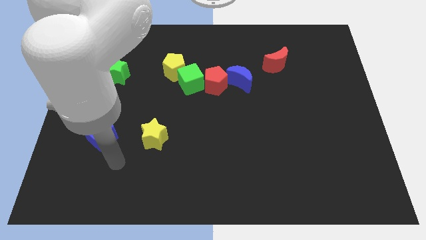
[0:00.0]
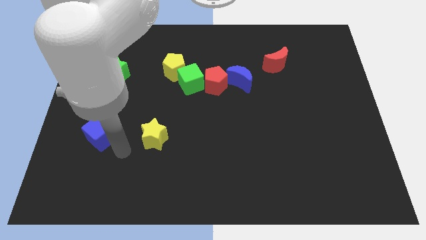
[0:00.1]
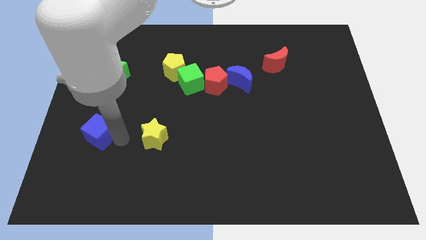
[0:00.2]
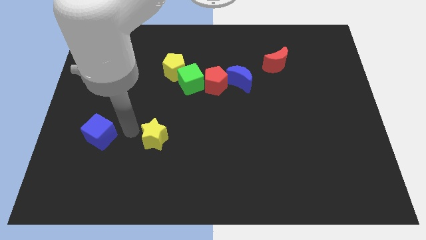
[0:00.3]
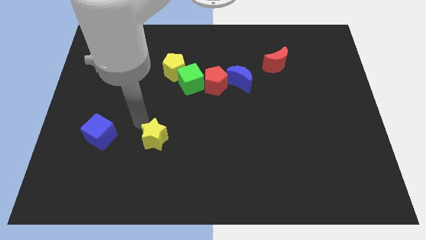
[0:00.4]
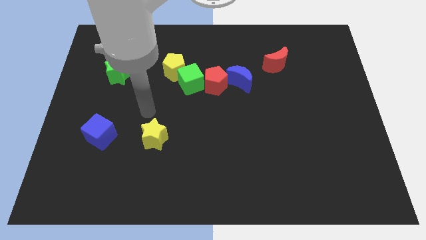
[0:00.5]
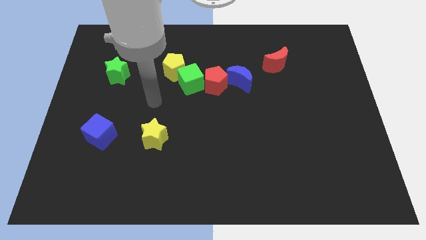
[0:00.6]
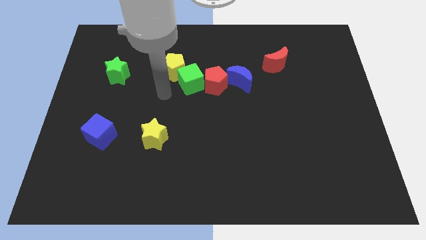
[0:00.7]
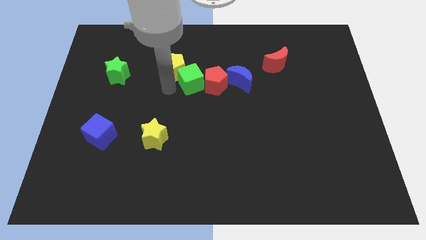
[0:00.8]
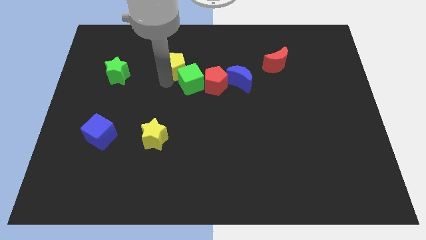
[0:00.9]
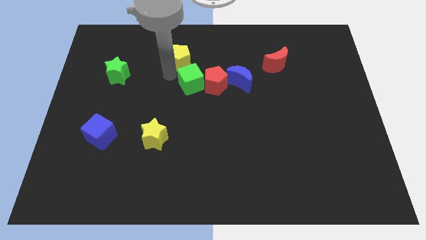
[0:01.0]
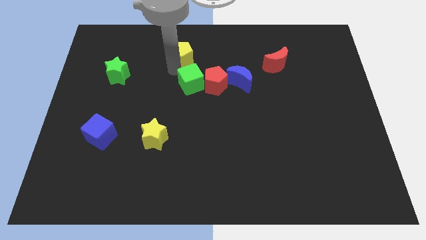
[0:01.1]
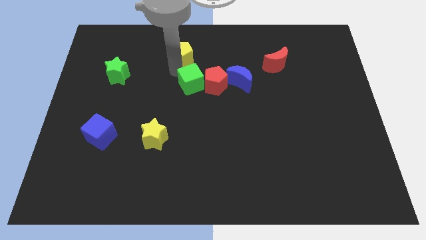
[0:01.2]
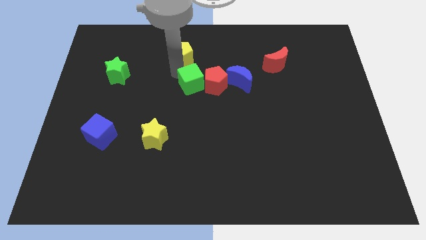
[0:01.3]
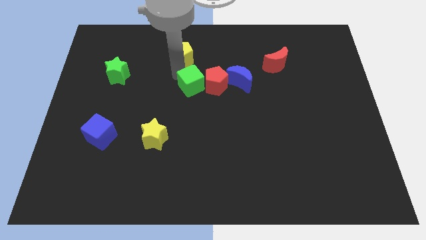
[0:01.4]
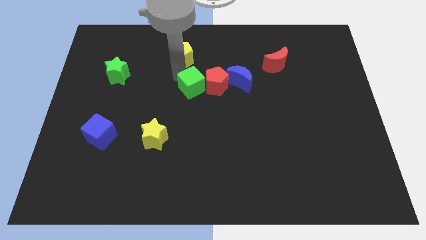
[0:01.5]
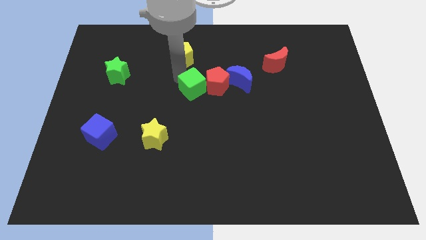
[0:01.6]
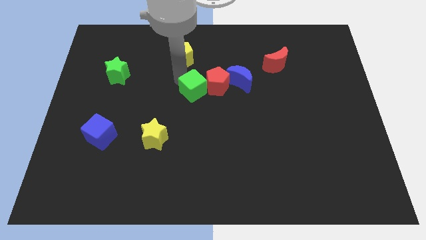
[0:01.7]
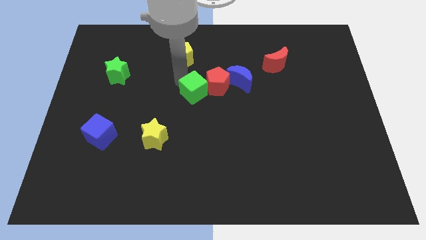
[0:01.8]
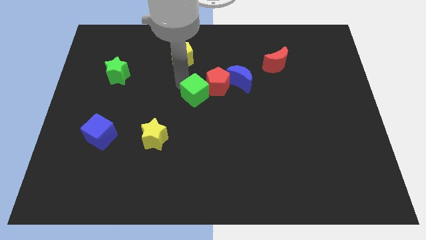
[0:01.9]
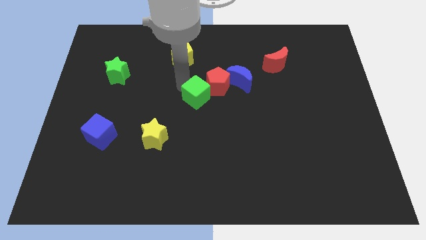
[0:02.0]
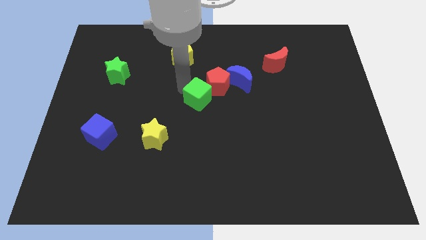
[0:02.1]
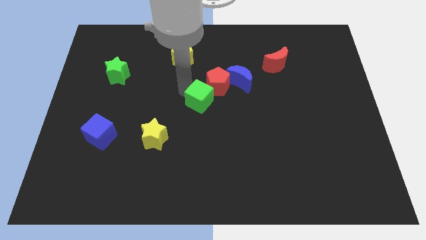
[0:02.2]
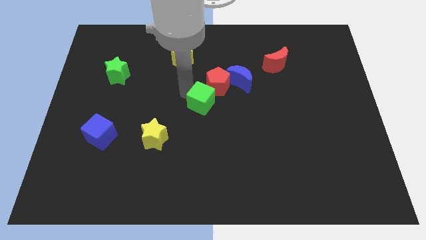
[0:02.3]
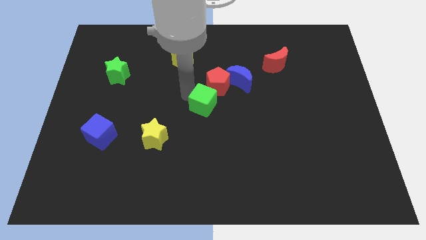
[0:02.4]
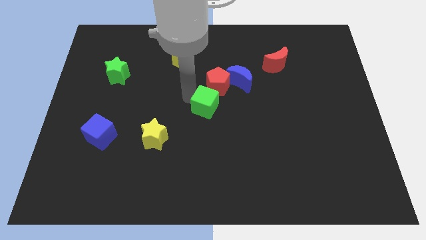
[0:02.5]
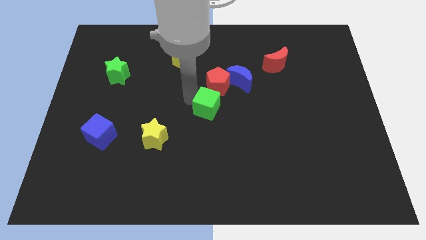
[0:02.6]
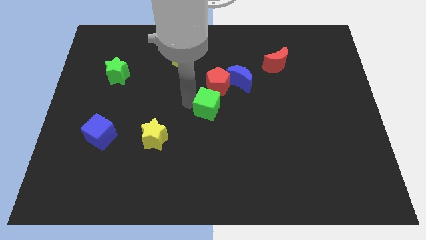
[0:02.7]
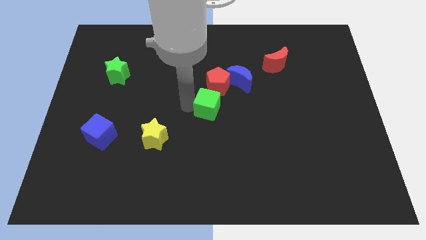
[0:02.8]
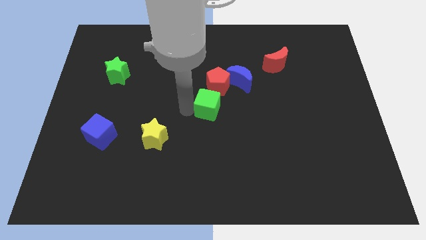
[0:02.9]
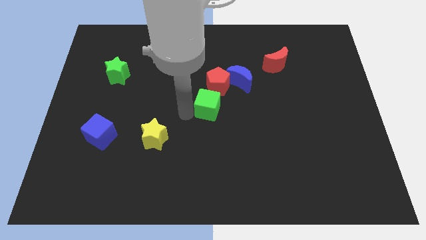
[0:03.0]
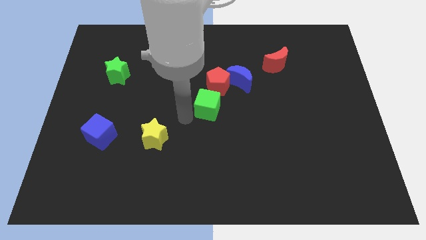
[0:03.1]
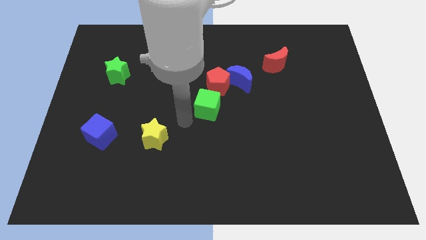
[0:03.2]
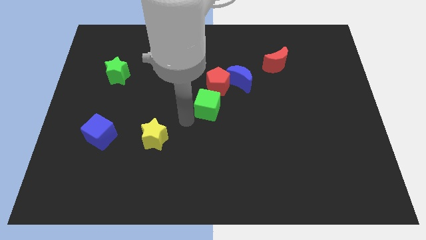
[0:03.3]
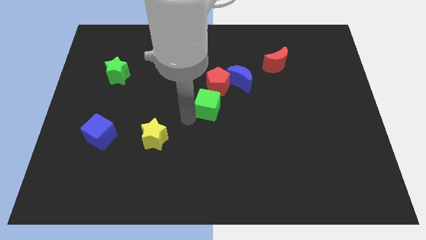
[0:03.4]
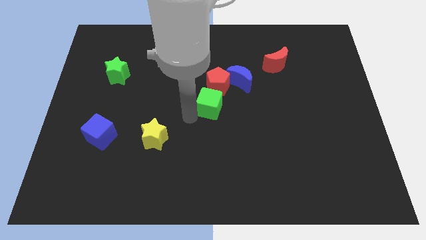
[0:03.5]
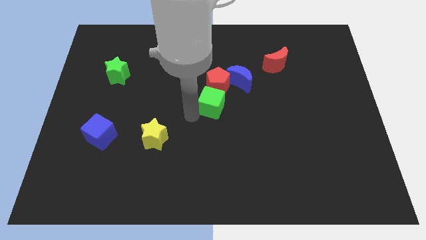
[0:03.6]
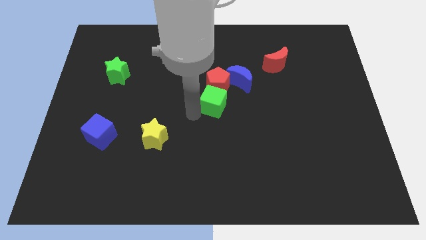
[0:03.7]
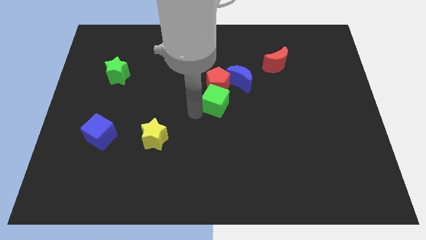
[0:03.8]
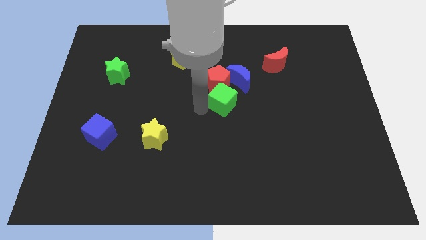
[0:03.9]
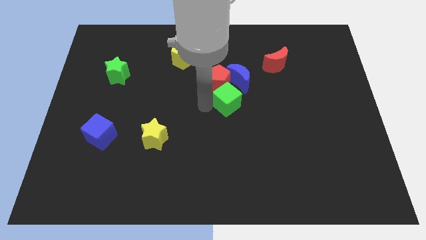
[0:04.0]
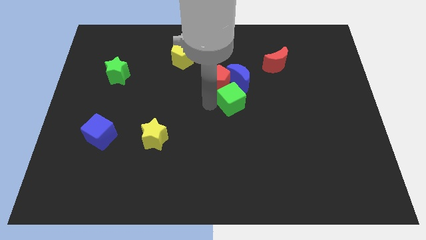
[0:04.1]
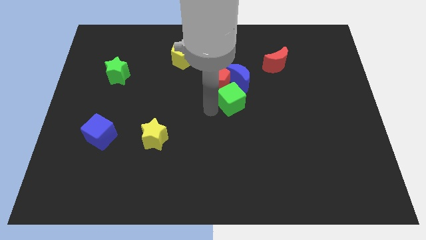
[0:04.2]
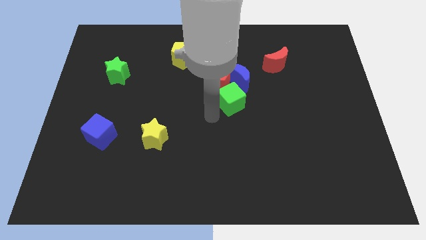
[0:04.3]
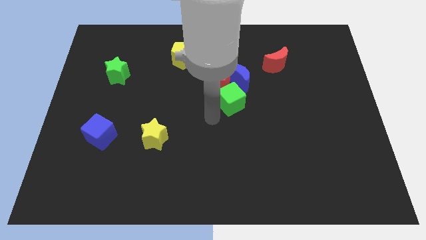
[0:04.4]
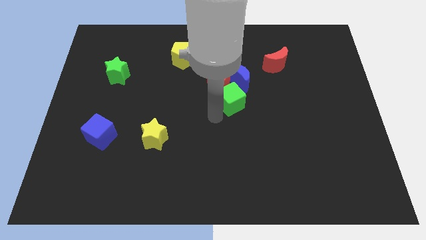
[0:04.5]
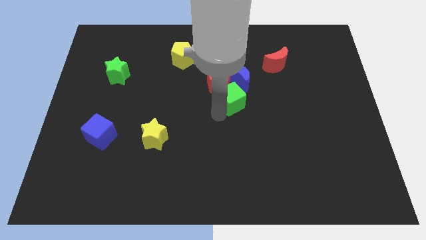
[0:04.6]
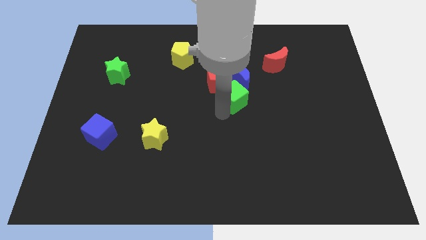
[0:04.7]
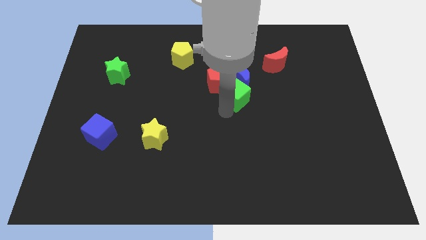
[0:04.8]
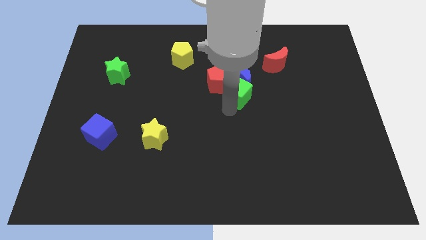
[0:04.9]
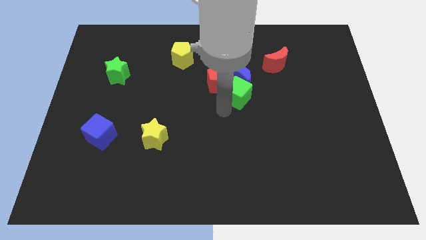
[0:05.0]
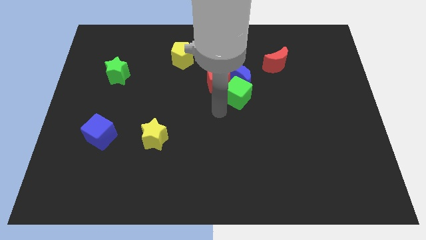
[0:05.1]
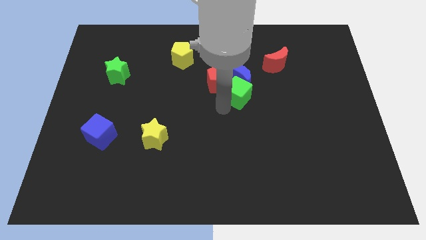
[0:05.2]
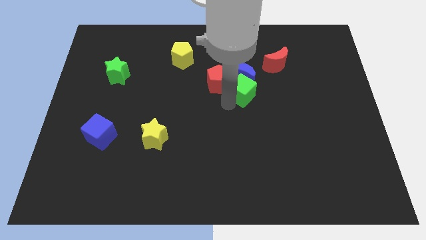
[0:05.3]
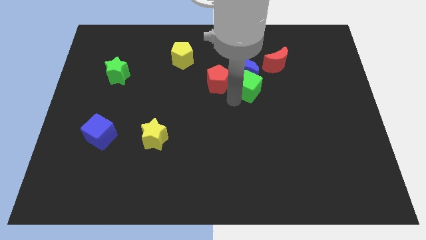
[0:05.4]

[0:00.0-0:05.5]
slide the green cube to the bottom left side of the red moon

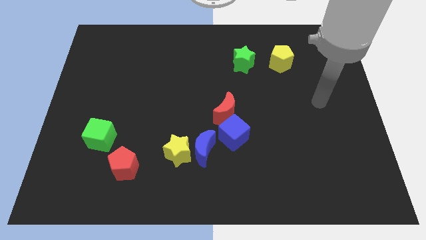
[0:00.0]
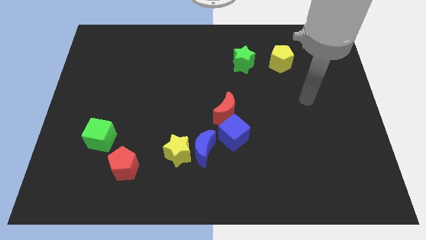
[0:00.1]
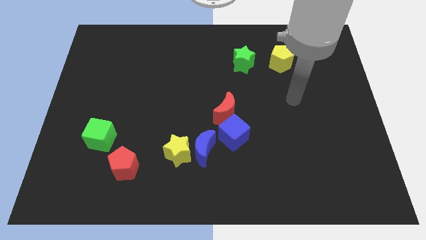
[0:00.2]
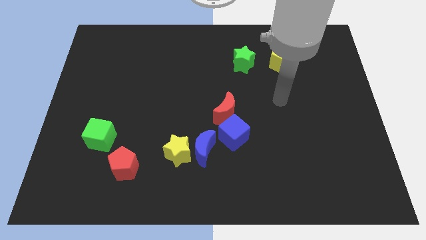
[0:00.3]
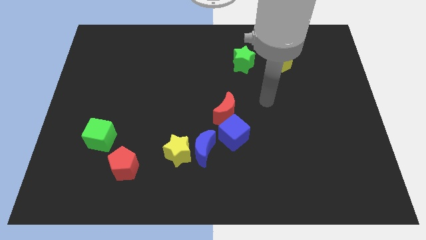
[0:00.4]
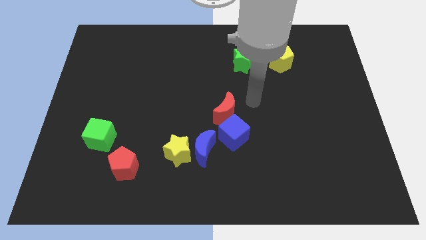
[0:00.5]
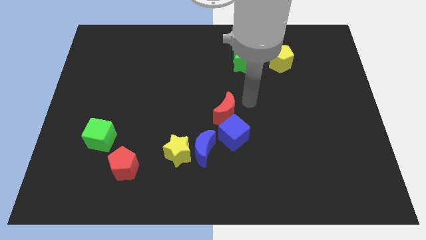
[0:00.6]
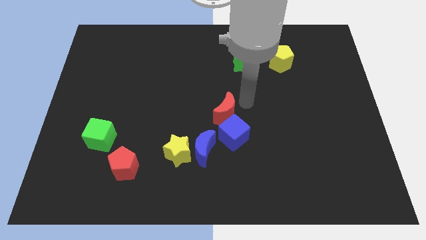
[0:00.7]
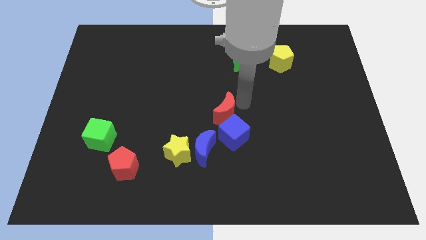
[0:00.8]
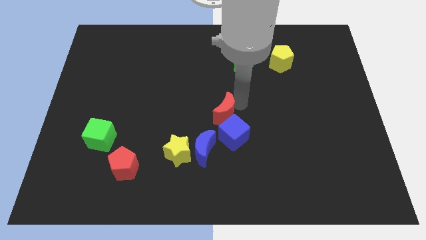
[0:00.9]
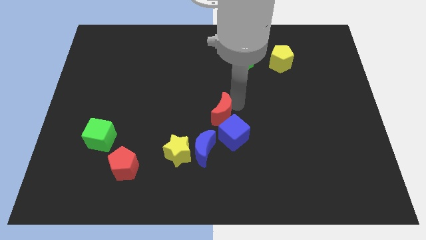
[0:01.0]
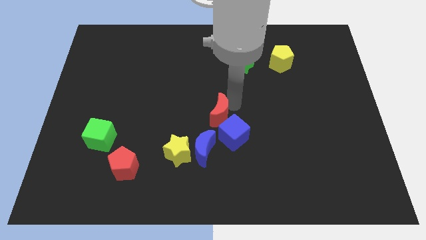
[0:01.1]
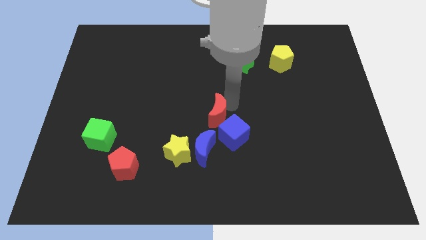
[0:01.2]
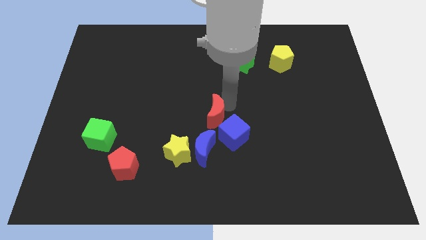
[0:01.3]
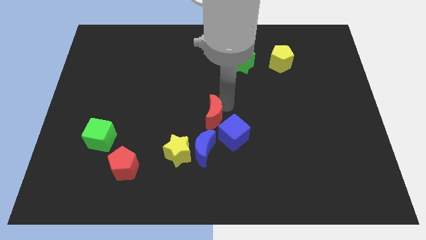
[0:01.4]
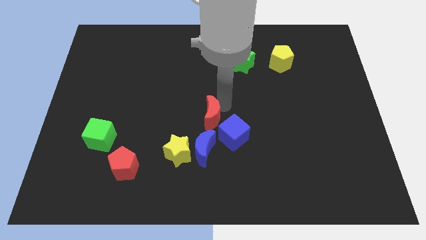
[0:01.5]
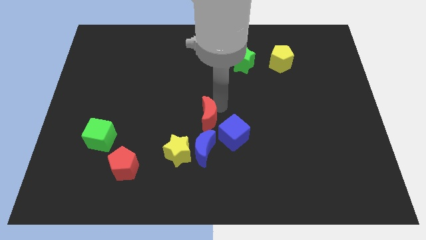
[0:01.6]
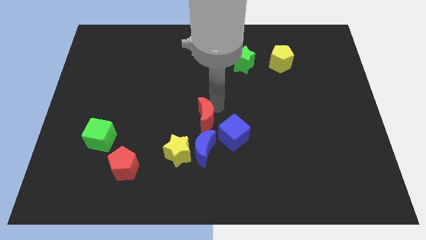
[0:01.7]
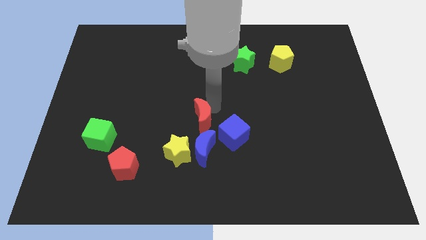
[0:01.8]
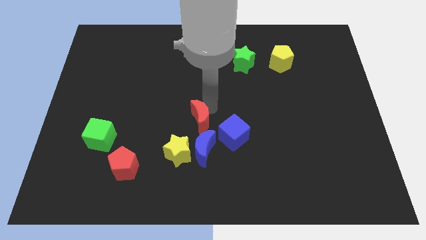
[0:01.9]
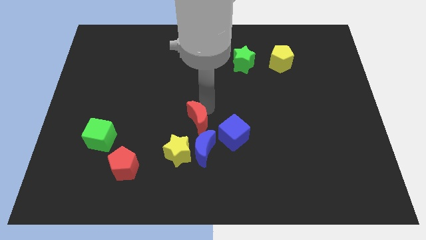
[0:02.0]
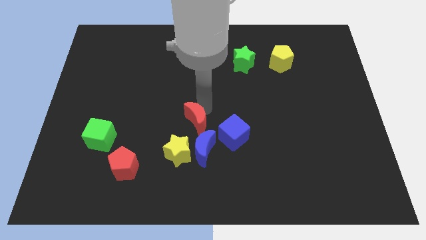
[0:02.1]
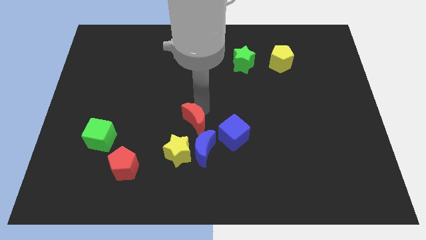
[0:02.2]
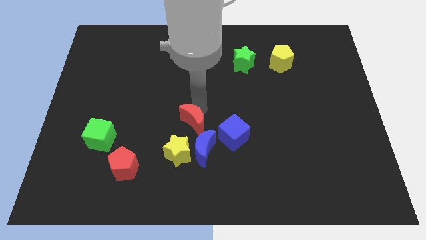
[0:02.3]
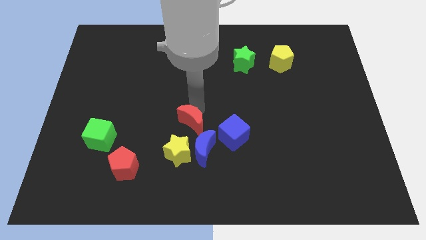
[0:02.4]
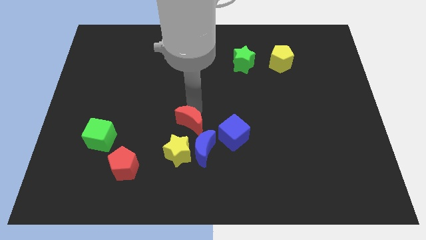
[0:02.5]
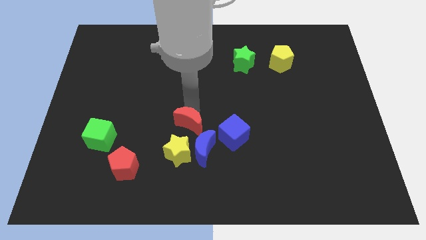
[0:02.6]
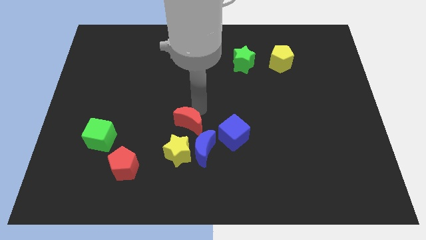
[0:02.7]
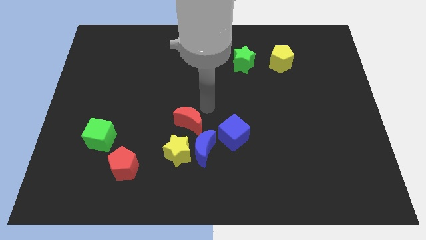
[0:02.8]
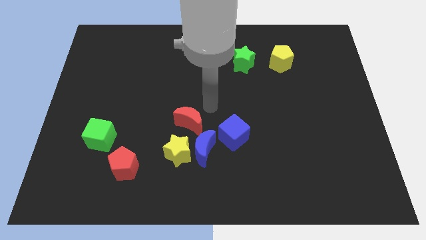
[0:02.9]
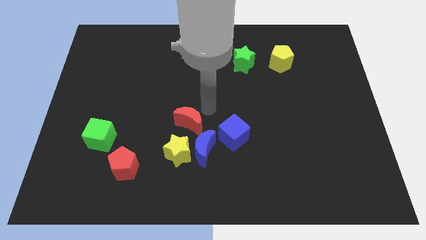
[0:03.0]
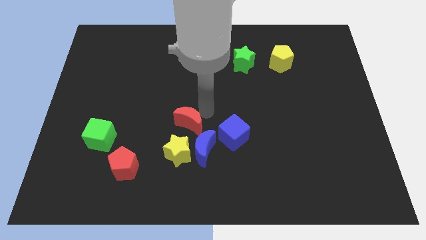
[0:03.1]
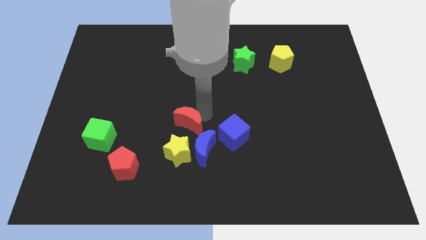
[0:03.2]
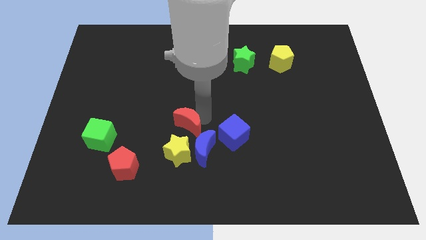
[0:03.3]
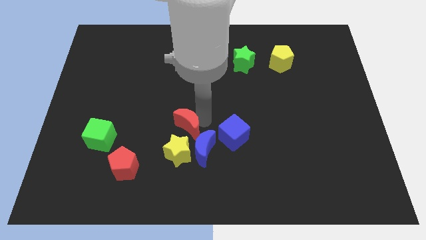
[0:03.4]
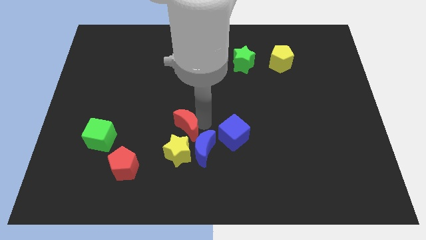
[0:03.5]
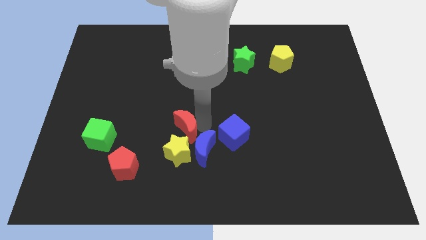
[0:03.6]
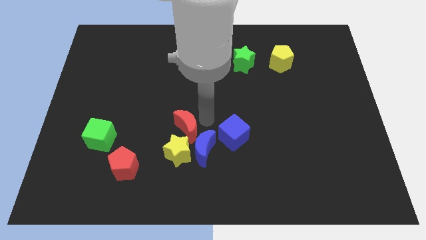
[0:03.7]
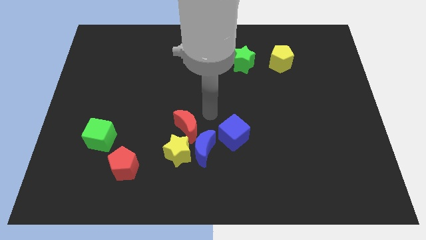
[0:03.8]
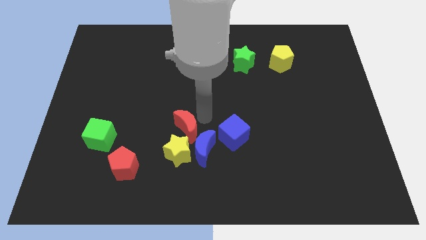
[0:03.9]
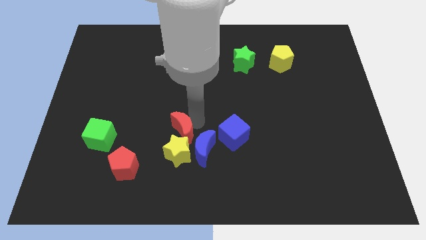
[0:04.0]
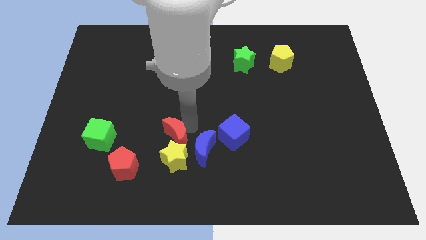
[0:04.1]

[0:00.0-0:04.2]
slide the red moon to the left side of the blue moon
